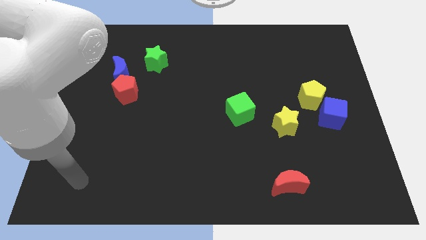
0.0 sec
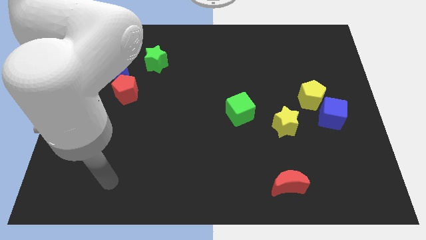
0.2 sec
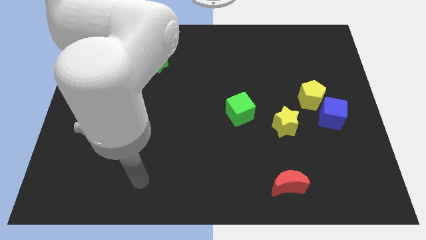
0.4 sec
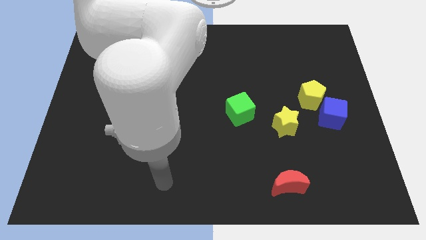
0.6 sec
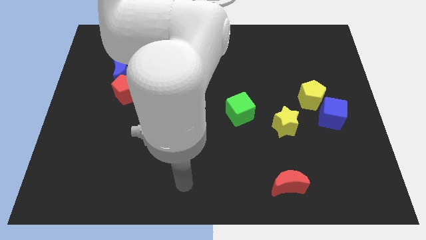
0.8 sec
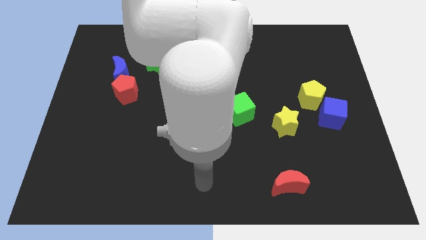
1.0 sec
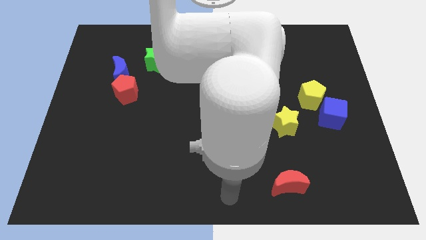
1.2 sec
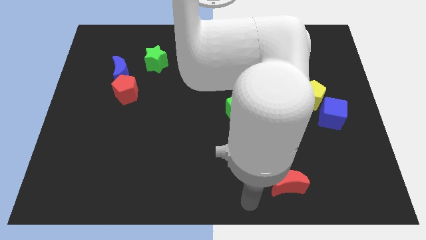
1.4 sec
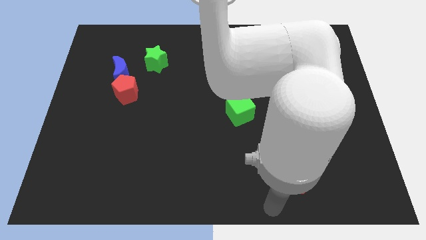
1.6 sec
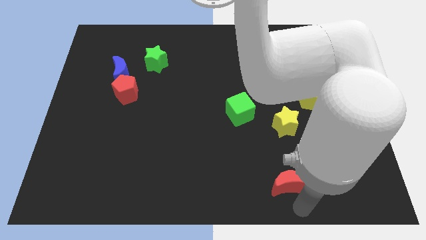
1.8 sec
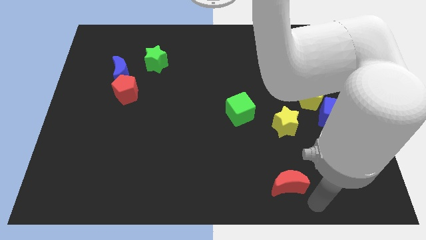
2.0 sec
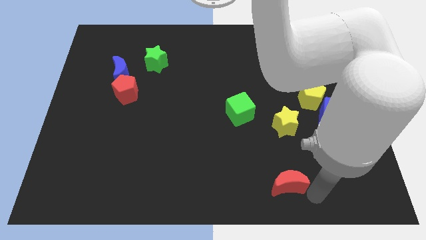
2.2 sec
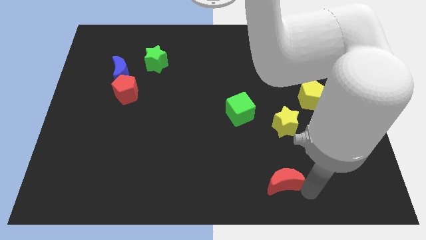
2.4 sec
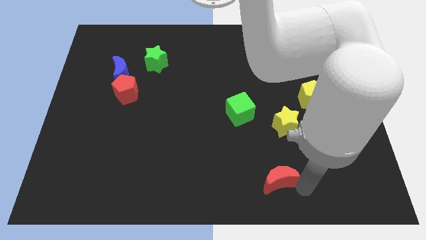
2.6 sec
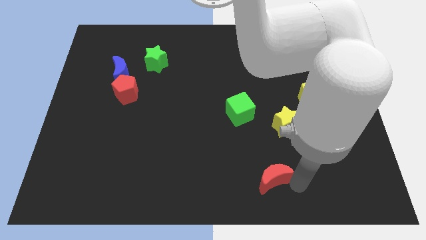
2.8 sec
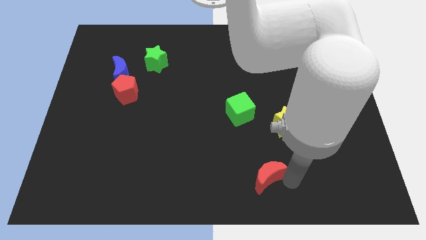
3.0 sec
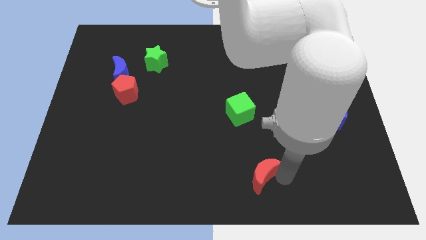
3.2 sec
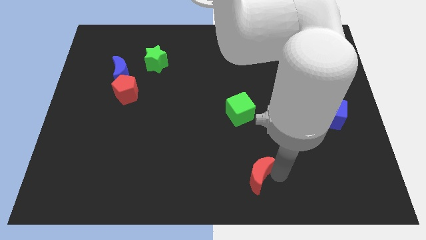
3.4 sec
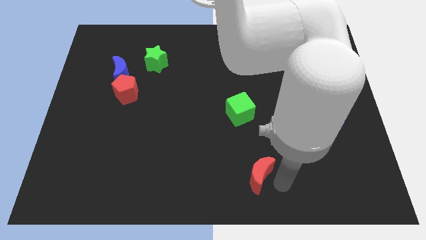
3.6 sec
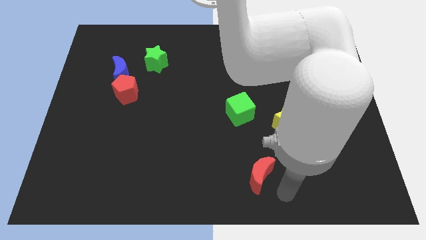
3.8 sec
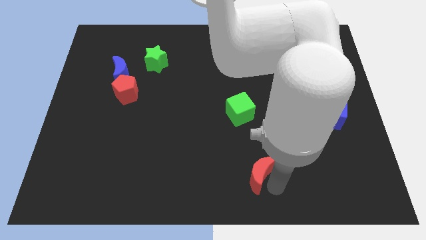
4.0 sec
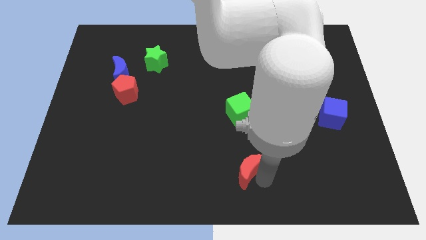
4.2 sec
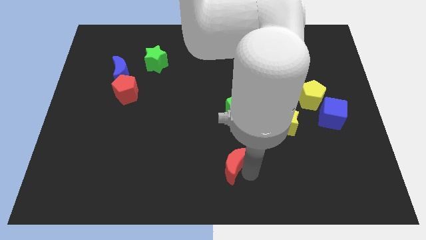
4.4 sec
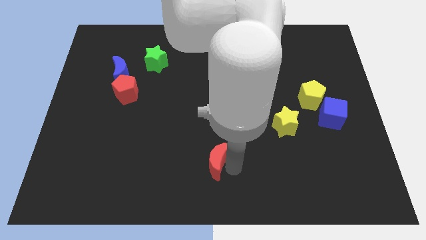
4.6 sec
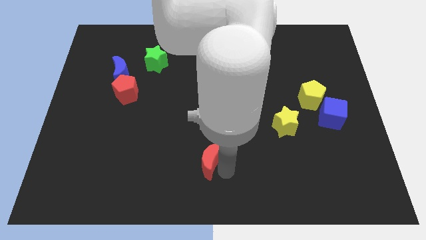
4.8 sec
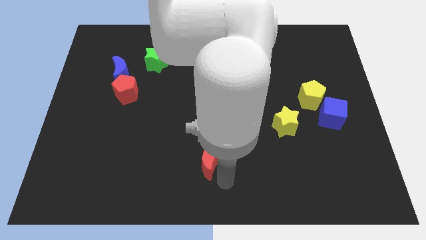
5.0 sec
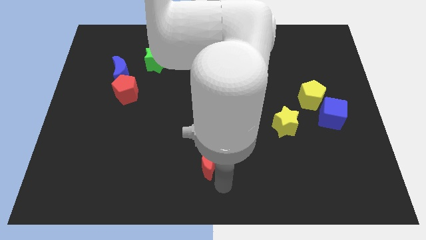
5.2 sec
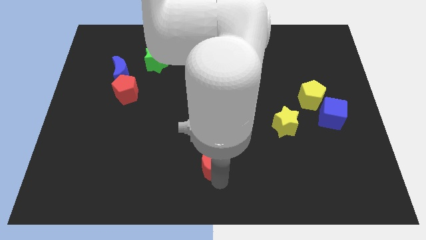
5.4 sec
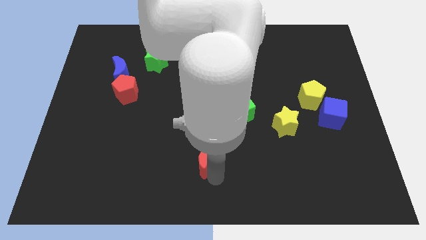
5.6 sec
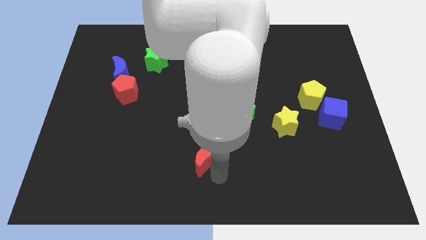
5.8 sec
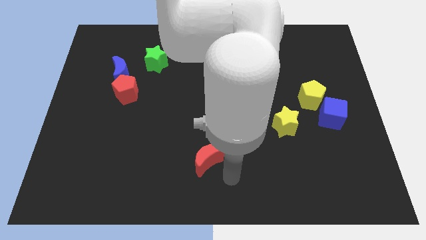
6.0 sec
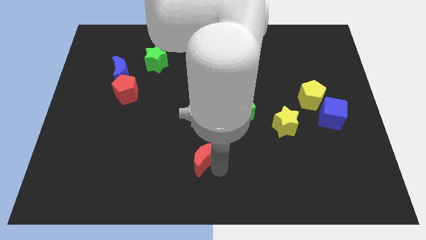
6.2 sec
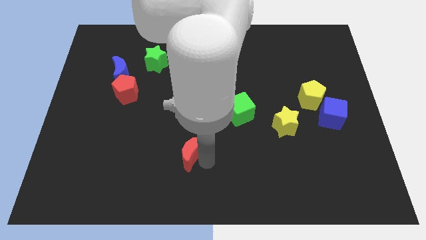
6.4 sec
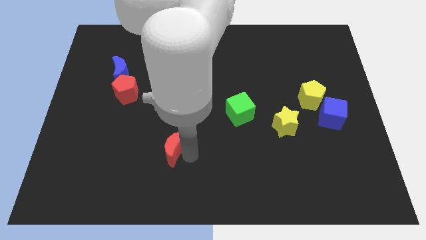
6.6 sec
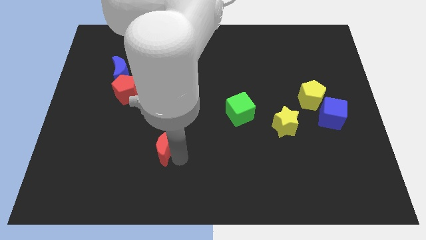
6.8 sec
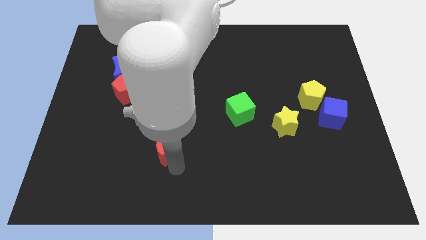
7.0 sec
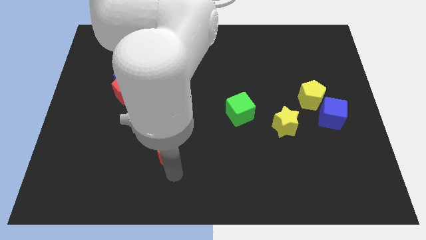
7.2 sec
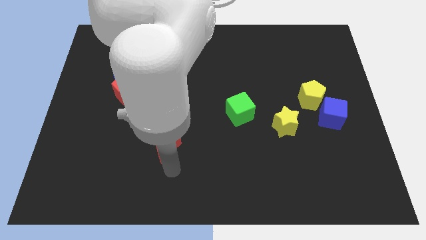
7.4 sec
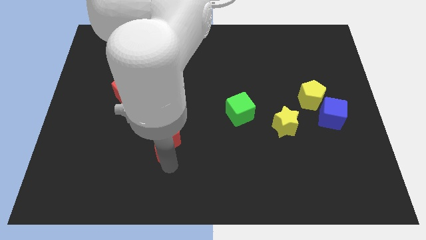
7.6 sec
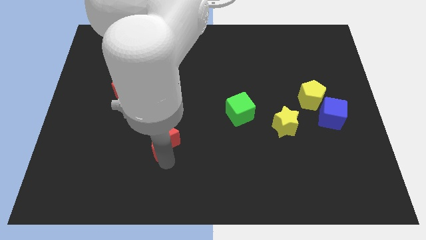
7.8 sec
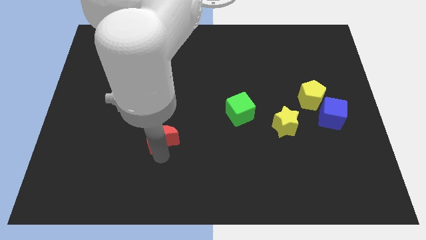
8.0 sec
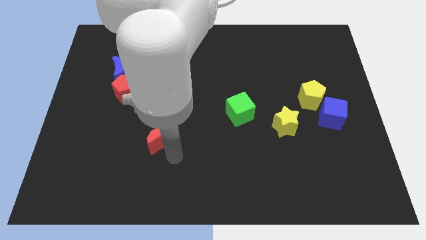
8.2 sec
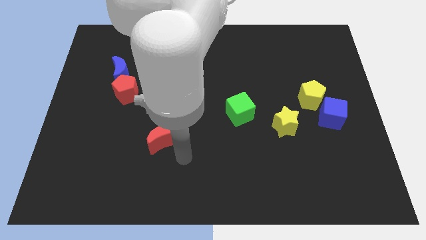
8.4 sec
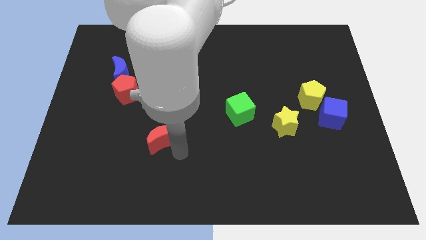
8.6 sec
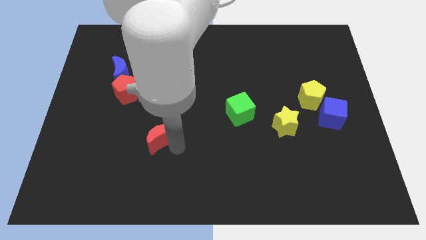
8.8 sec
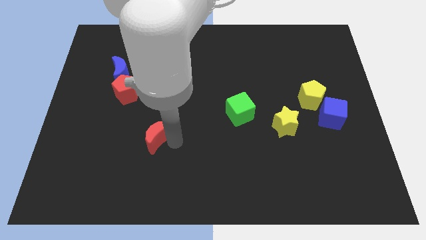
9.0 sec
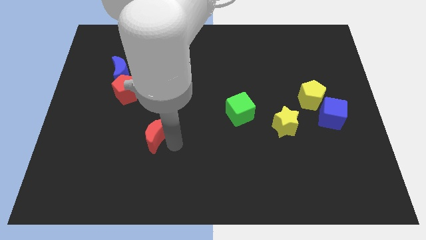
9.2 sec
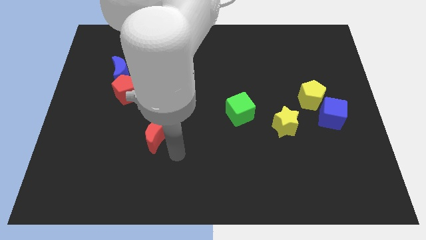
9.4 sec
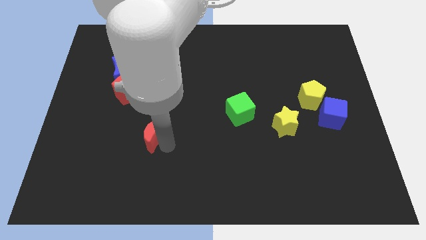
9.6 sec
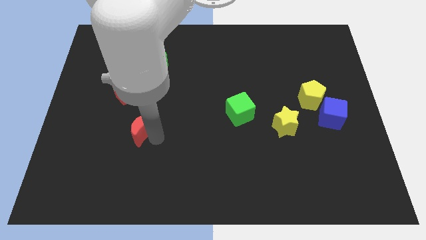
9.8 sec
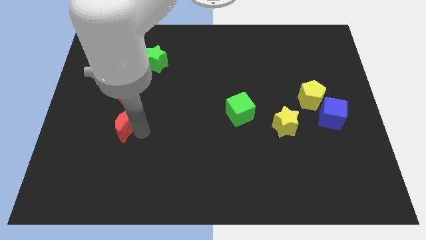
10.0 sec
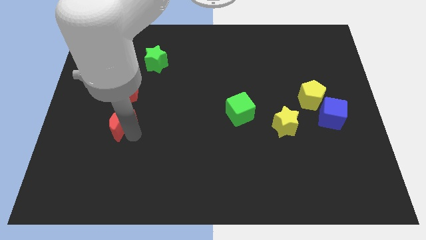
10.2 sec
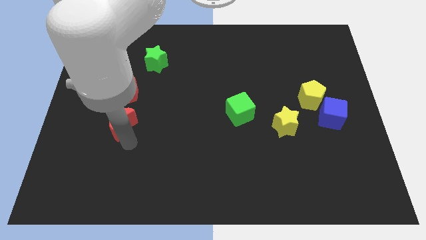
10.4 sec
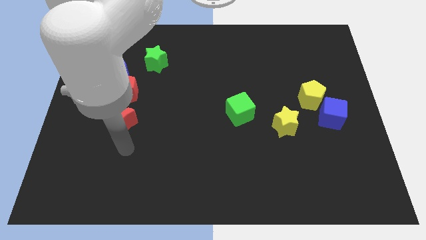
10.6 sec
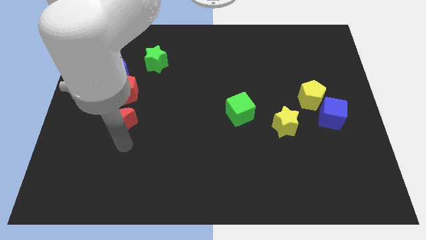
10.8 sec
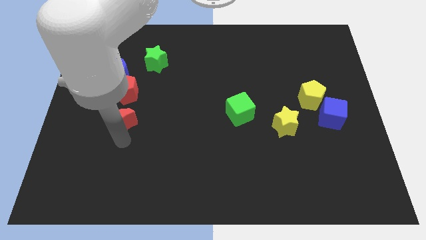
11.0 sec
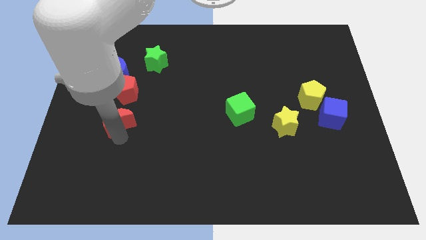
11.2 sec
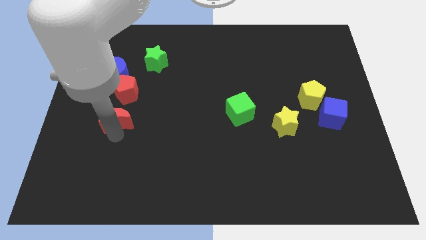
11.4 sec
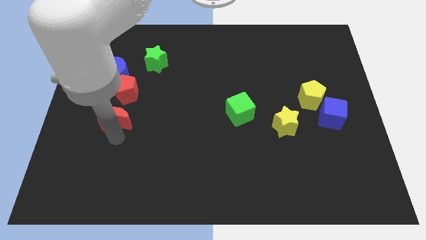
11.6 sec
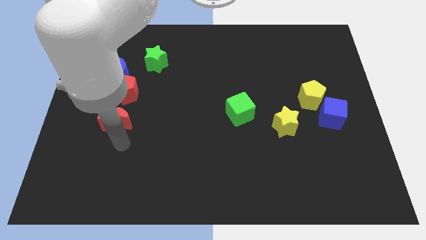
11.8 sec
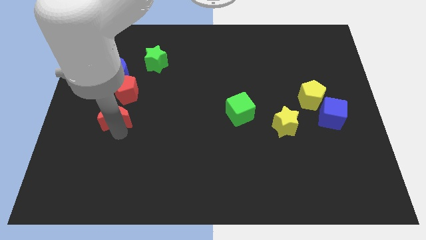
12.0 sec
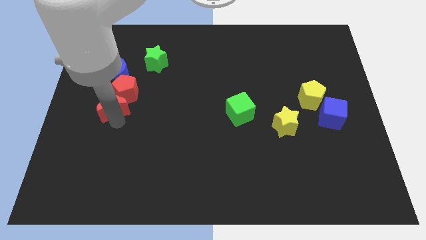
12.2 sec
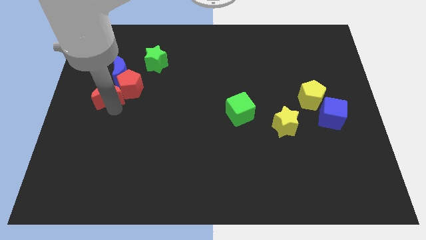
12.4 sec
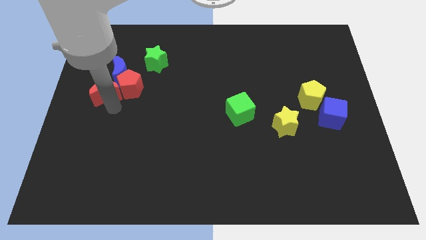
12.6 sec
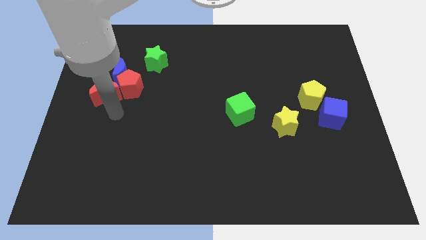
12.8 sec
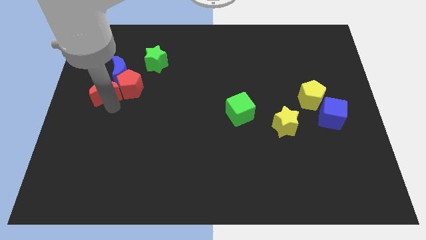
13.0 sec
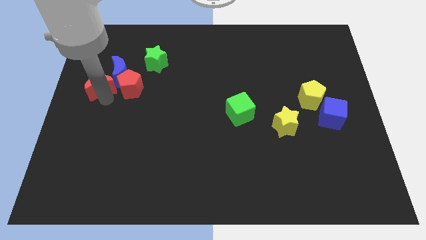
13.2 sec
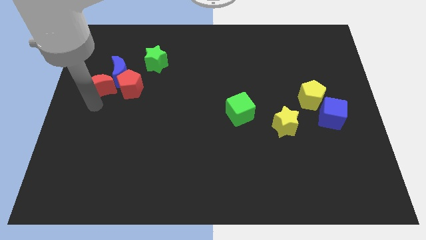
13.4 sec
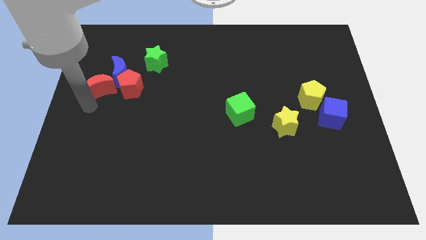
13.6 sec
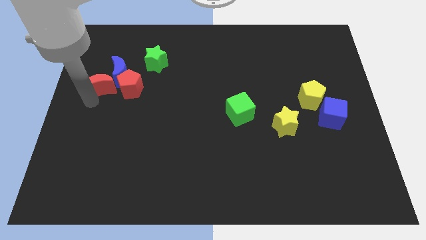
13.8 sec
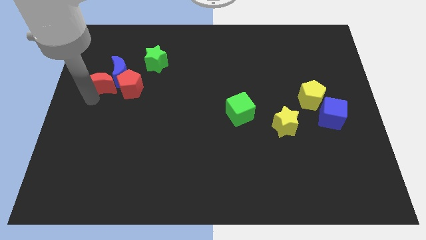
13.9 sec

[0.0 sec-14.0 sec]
put the red moon to the top left side of the red pentagon
